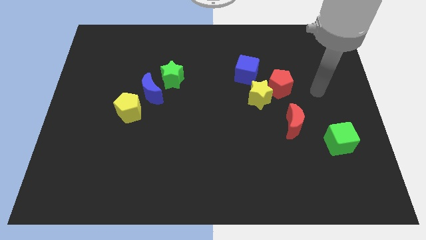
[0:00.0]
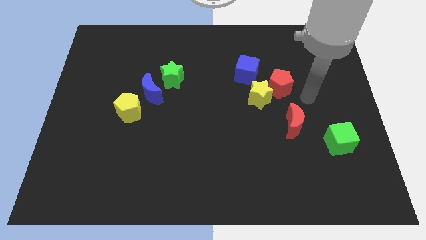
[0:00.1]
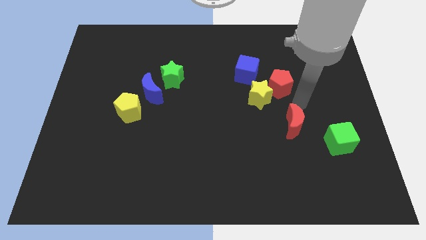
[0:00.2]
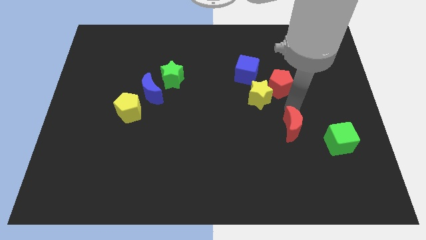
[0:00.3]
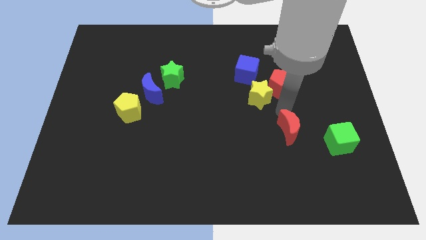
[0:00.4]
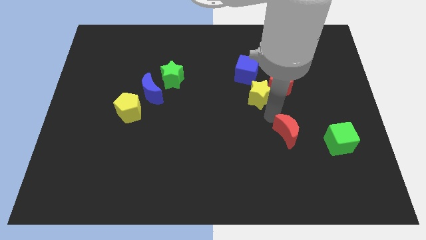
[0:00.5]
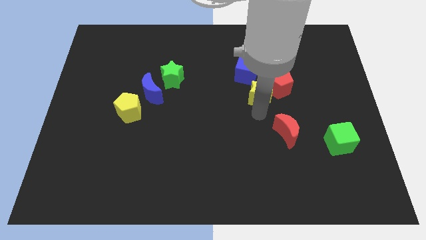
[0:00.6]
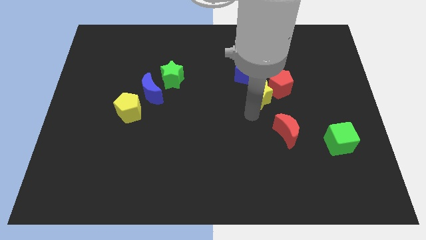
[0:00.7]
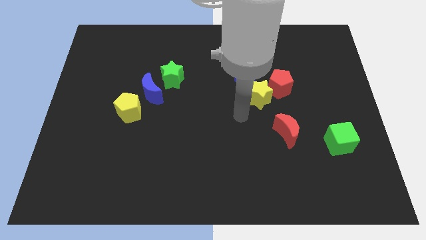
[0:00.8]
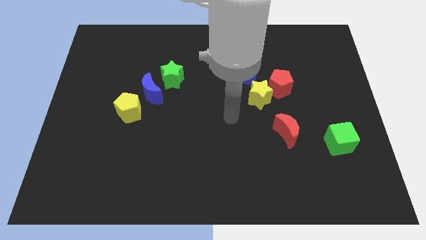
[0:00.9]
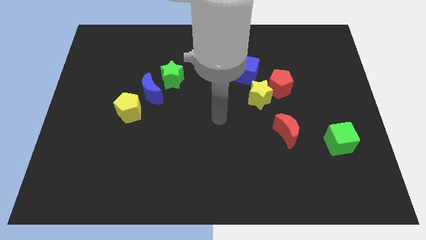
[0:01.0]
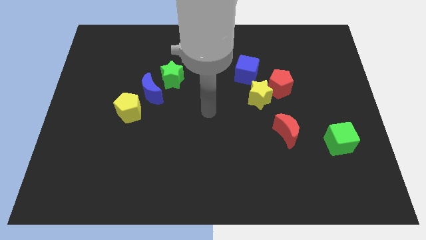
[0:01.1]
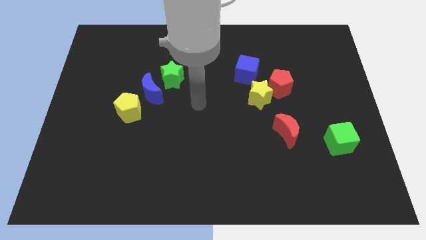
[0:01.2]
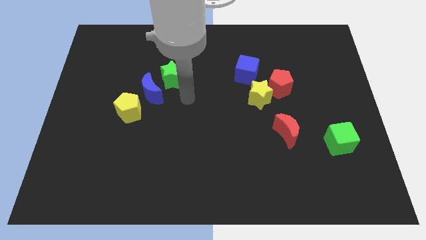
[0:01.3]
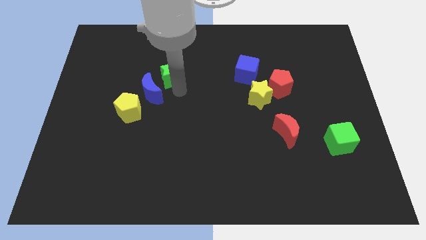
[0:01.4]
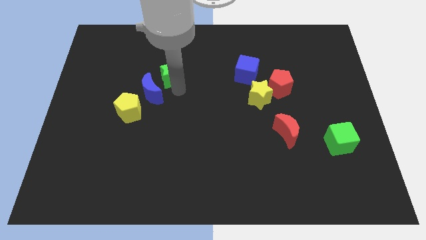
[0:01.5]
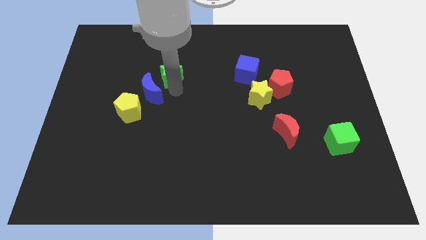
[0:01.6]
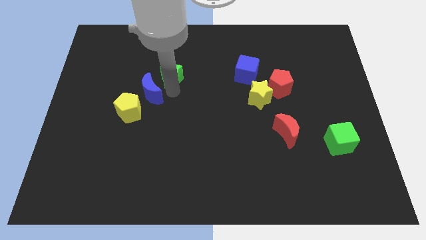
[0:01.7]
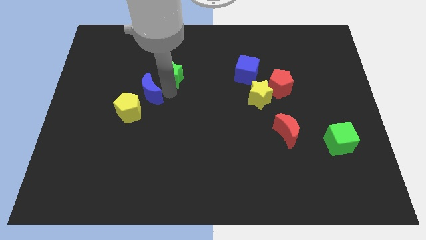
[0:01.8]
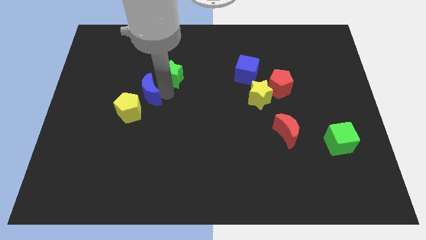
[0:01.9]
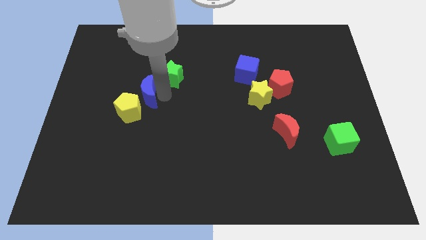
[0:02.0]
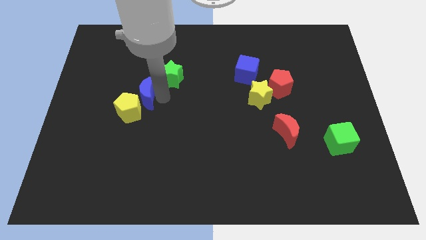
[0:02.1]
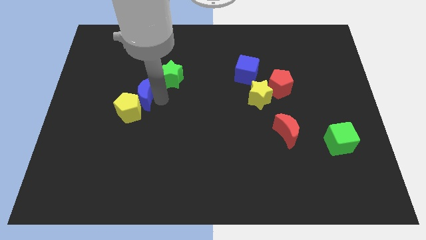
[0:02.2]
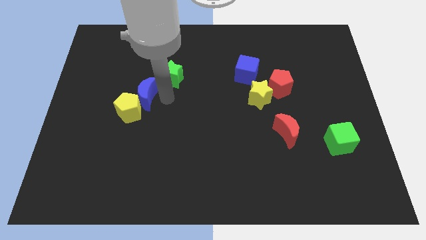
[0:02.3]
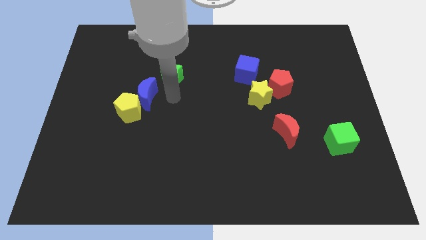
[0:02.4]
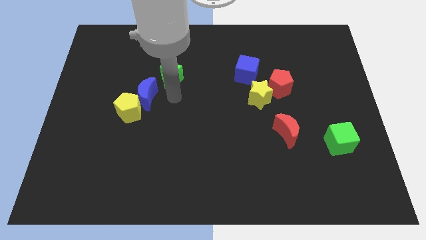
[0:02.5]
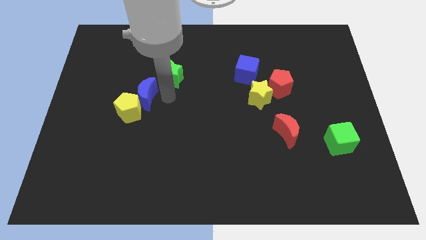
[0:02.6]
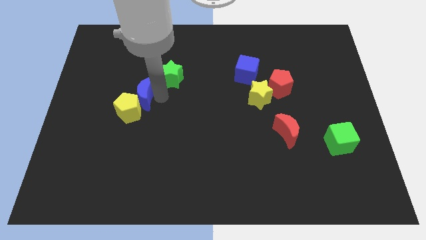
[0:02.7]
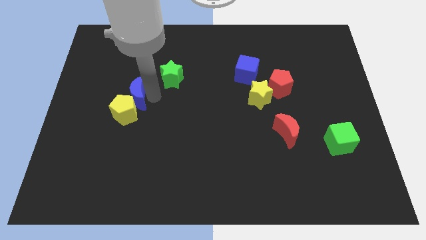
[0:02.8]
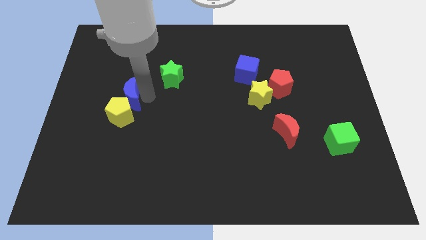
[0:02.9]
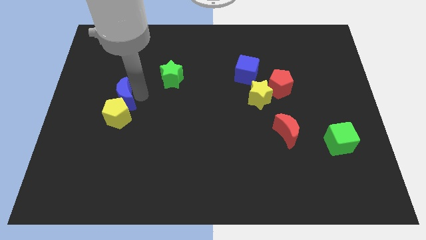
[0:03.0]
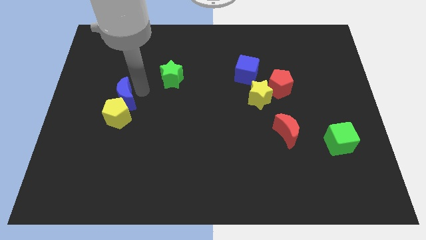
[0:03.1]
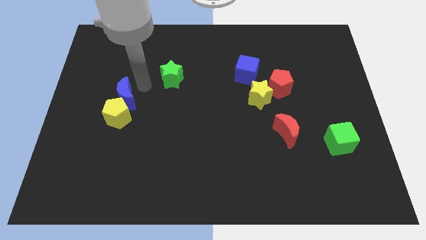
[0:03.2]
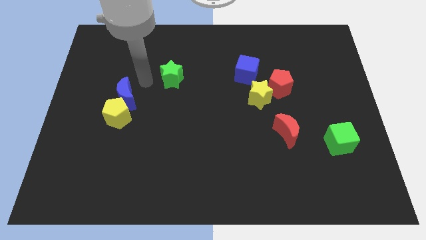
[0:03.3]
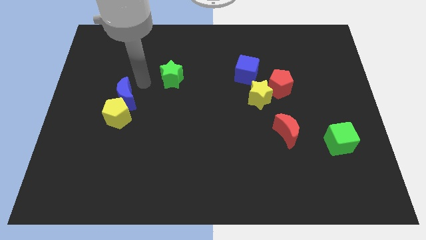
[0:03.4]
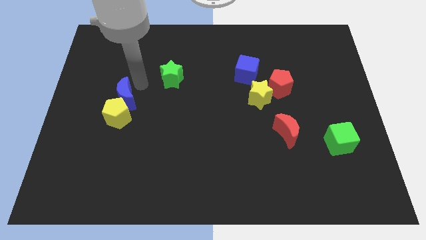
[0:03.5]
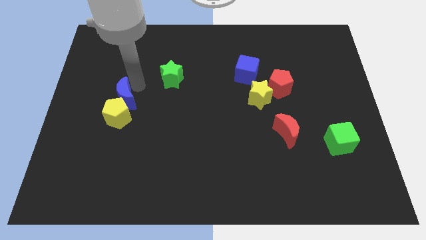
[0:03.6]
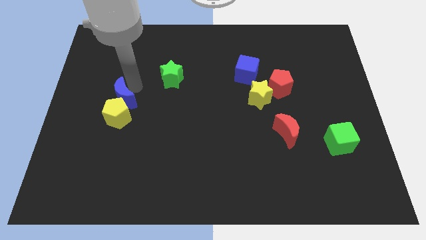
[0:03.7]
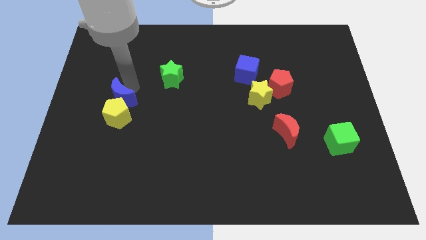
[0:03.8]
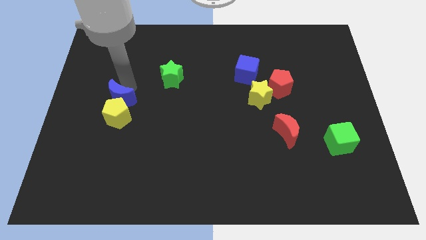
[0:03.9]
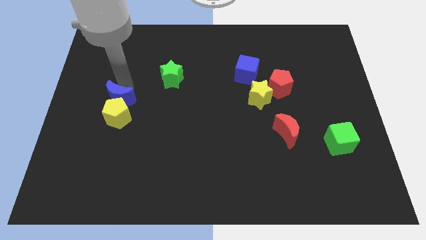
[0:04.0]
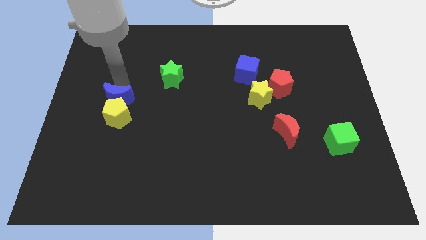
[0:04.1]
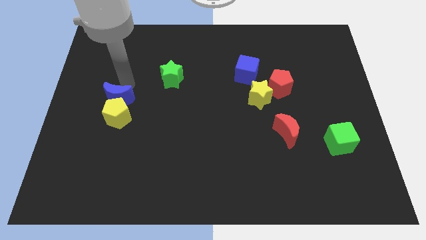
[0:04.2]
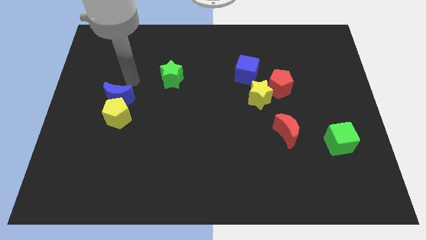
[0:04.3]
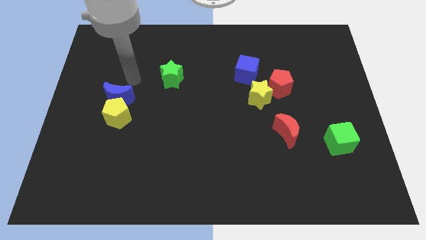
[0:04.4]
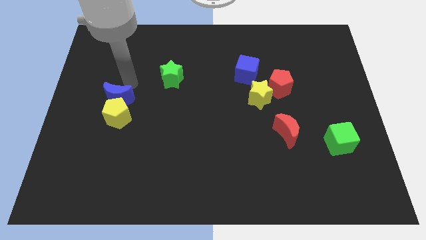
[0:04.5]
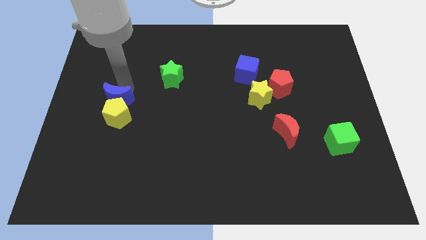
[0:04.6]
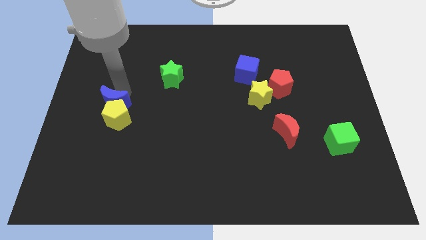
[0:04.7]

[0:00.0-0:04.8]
slightly push the blue moon diagonally downwards and to the left

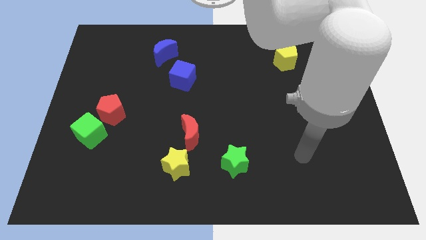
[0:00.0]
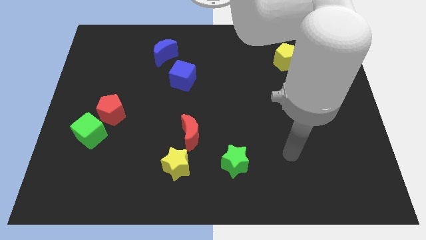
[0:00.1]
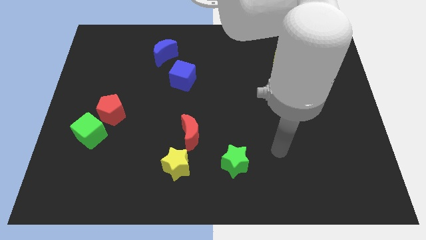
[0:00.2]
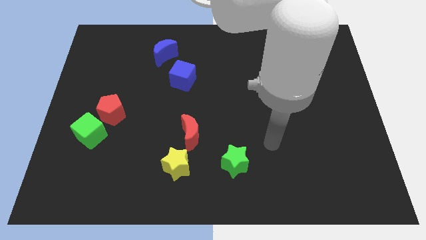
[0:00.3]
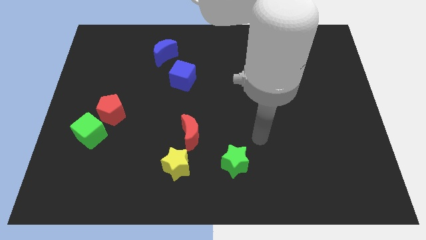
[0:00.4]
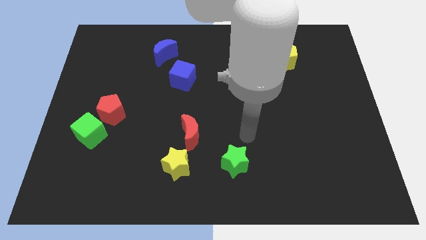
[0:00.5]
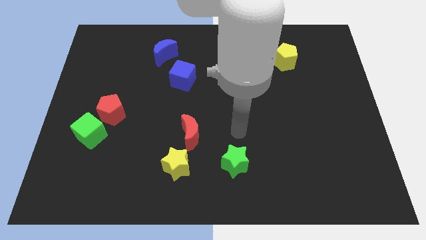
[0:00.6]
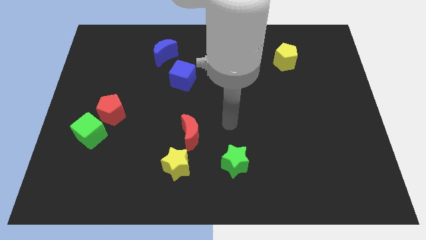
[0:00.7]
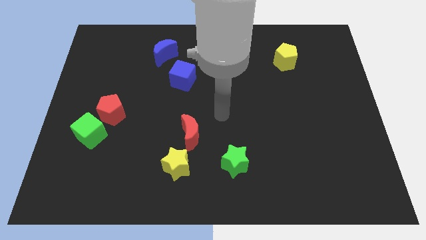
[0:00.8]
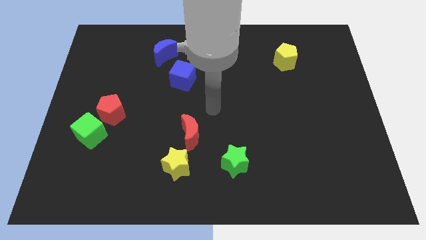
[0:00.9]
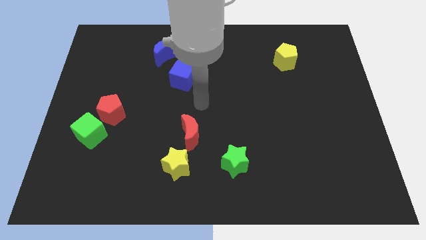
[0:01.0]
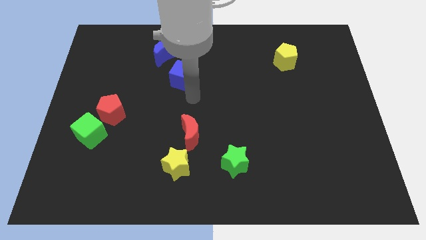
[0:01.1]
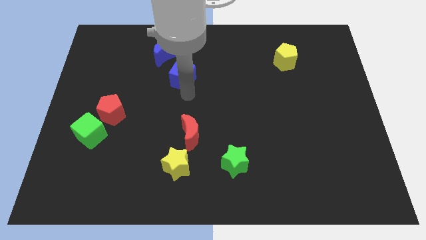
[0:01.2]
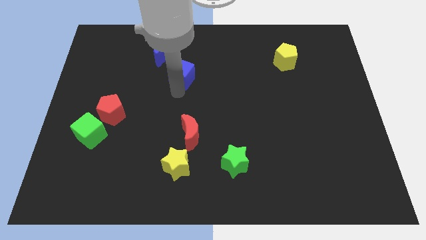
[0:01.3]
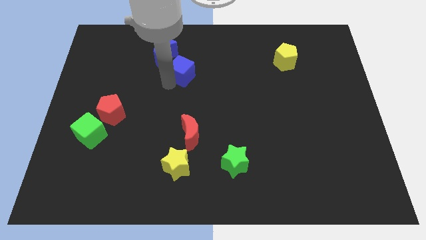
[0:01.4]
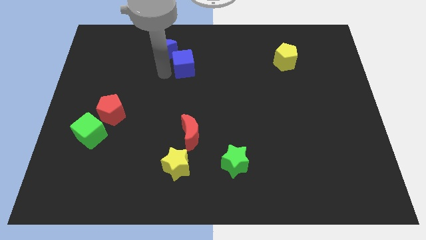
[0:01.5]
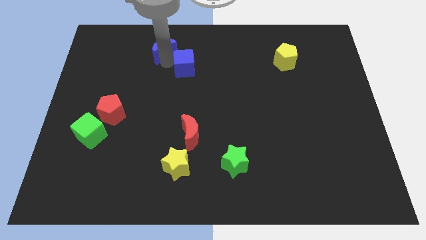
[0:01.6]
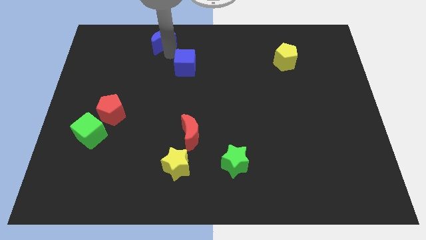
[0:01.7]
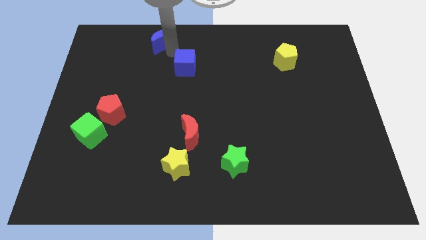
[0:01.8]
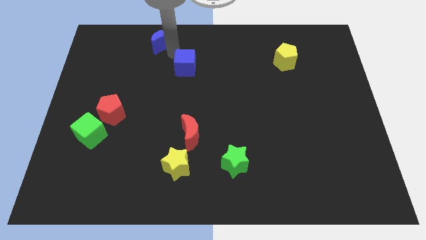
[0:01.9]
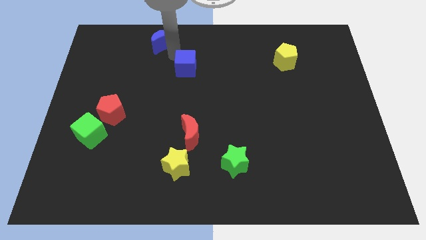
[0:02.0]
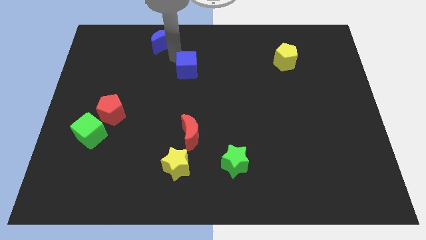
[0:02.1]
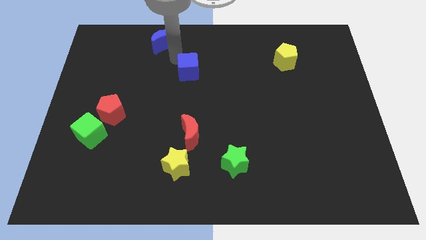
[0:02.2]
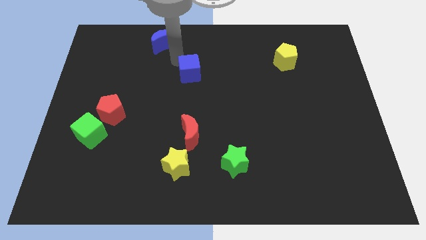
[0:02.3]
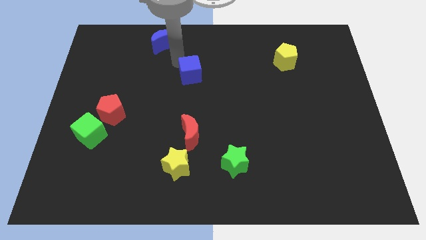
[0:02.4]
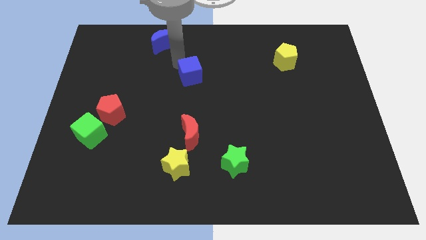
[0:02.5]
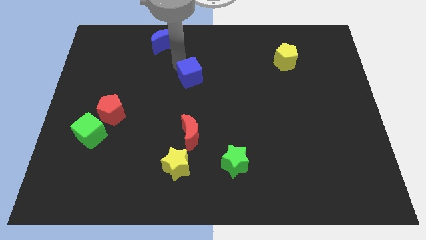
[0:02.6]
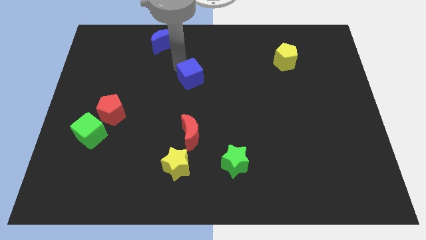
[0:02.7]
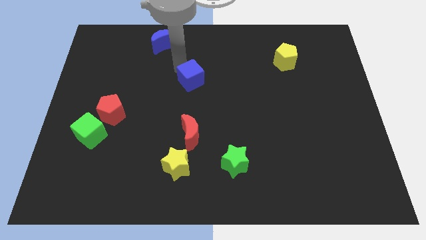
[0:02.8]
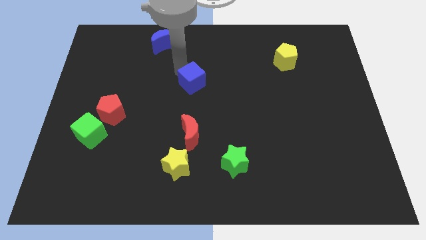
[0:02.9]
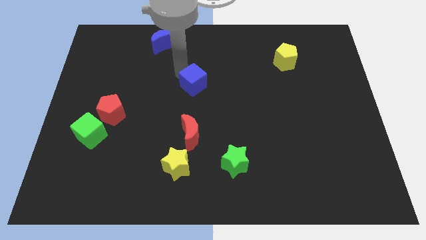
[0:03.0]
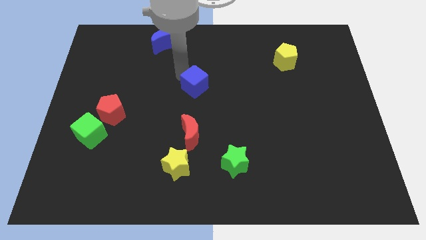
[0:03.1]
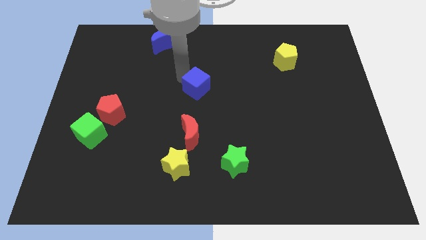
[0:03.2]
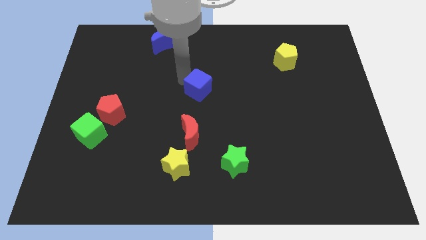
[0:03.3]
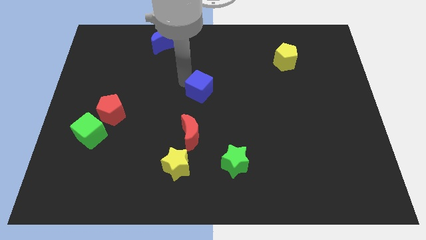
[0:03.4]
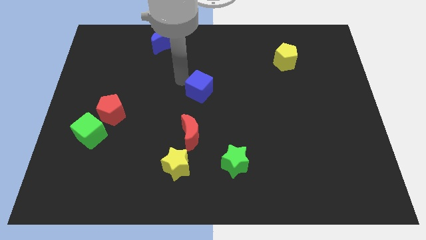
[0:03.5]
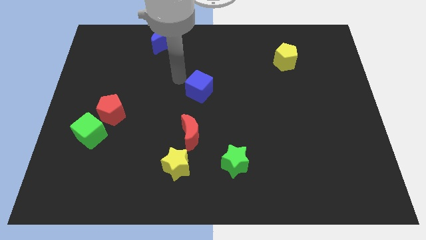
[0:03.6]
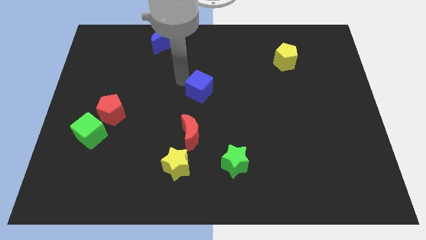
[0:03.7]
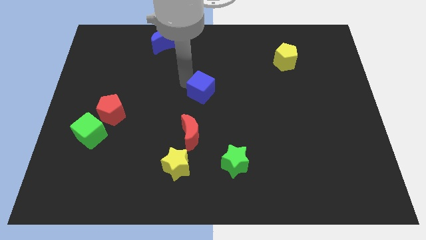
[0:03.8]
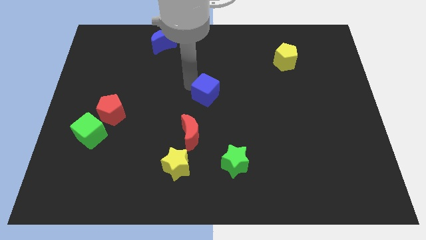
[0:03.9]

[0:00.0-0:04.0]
slide the blue cube somewhat diagonally downwards and to the right
